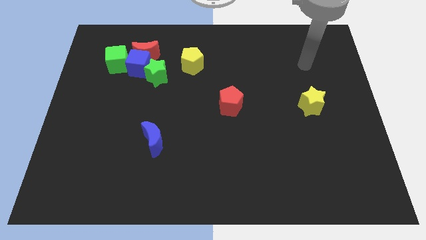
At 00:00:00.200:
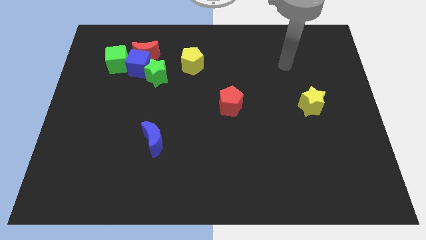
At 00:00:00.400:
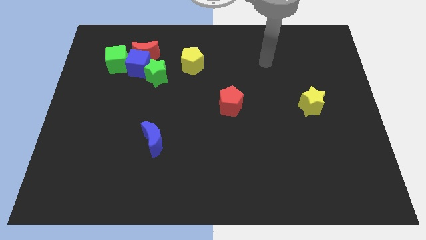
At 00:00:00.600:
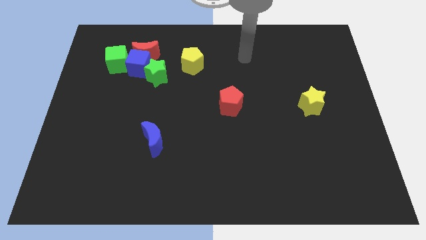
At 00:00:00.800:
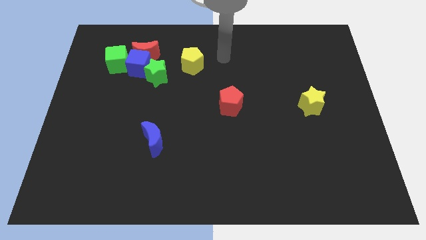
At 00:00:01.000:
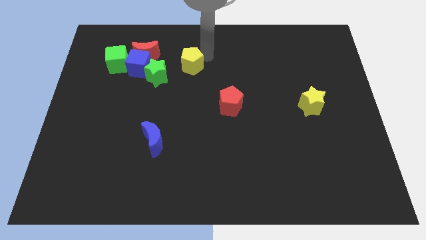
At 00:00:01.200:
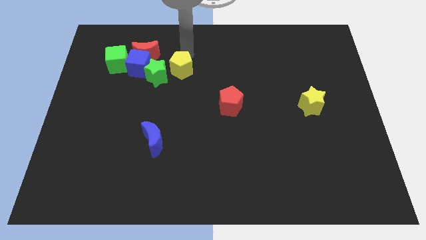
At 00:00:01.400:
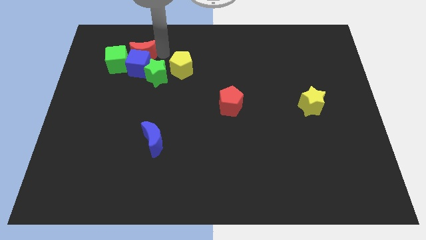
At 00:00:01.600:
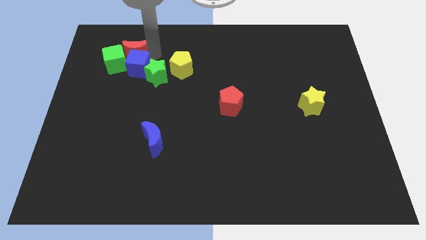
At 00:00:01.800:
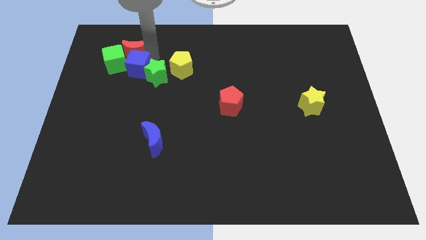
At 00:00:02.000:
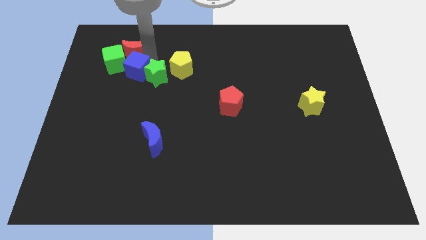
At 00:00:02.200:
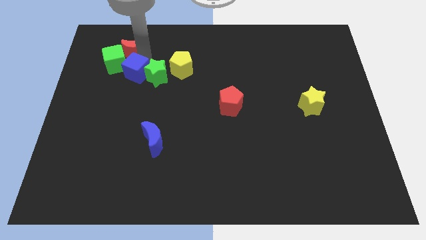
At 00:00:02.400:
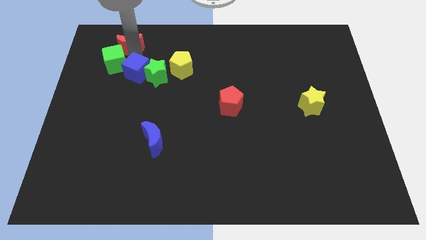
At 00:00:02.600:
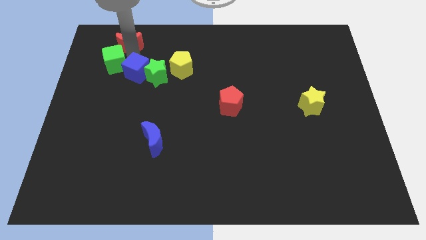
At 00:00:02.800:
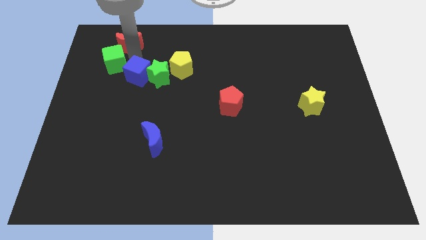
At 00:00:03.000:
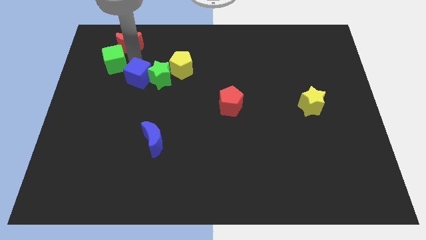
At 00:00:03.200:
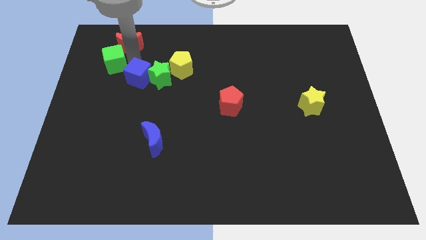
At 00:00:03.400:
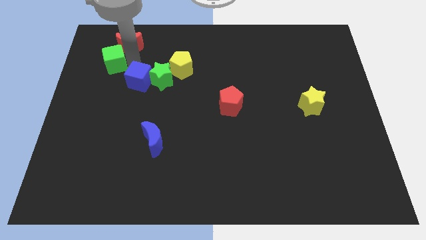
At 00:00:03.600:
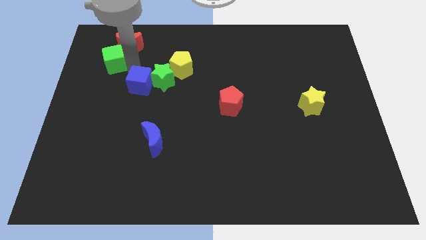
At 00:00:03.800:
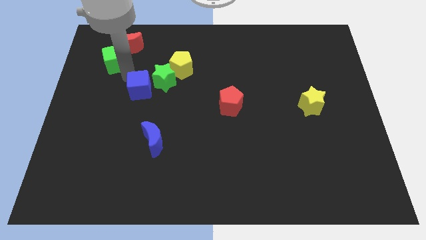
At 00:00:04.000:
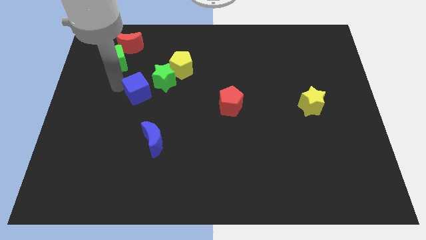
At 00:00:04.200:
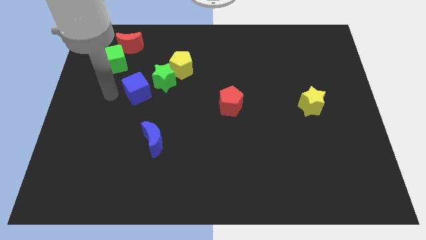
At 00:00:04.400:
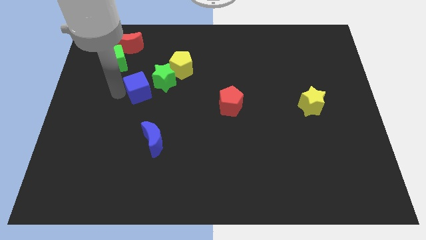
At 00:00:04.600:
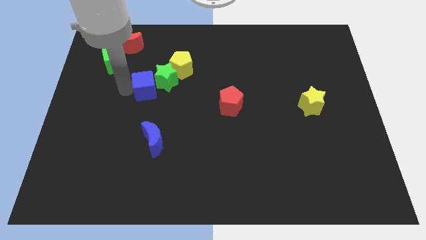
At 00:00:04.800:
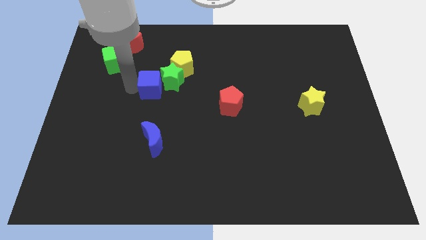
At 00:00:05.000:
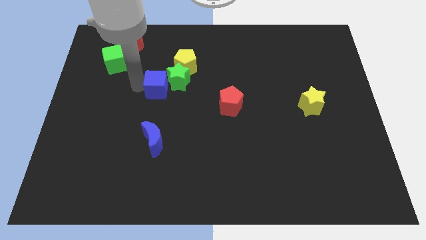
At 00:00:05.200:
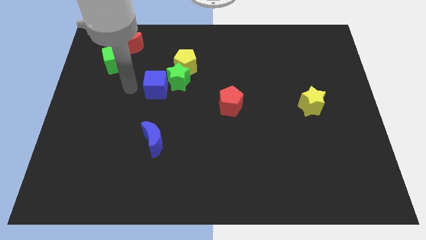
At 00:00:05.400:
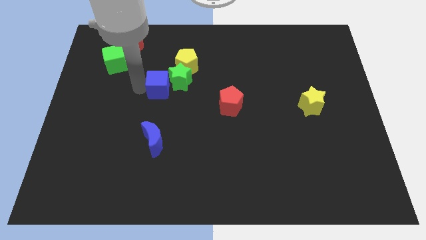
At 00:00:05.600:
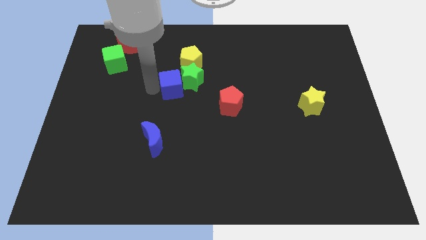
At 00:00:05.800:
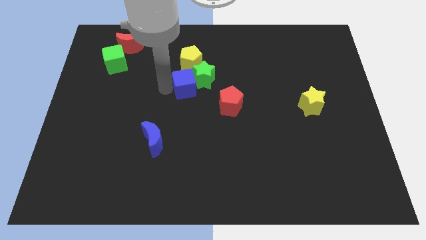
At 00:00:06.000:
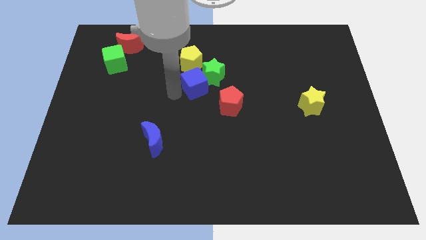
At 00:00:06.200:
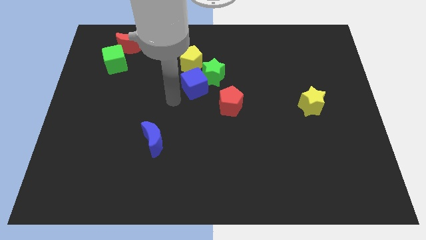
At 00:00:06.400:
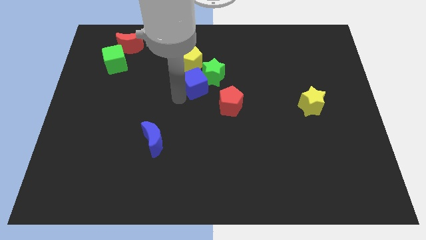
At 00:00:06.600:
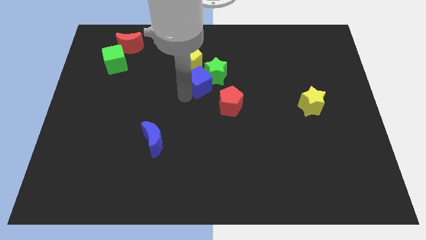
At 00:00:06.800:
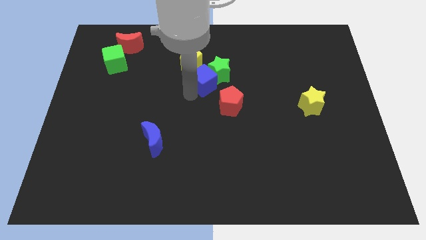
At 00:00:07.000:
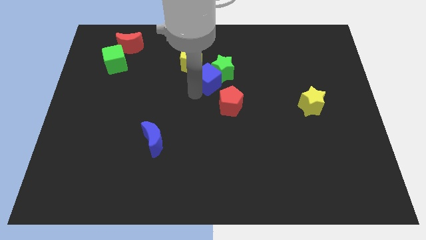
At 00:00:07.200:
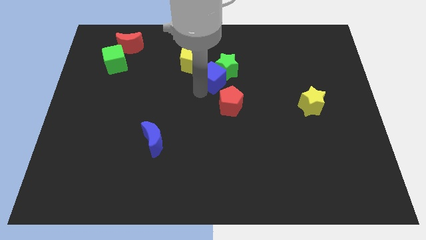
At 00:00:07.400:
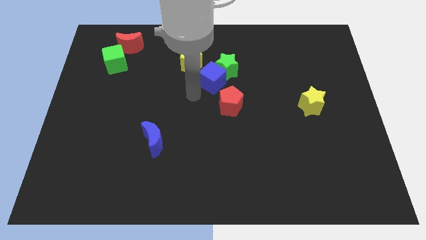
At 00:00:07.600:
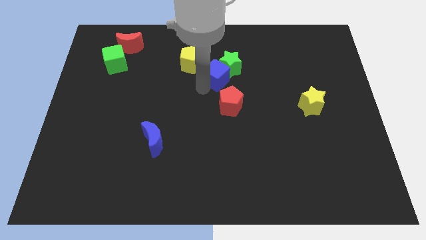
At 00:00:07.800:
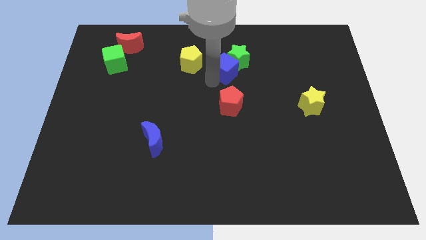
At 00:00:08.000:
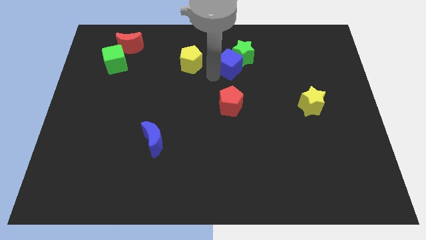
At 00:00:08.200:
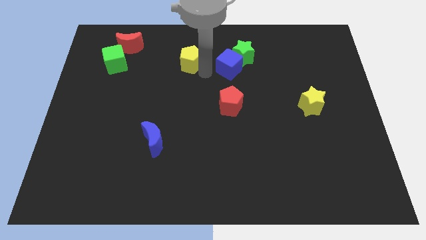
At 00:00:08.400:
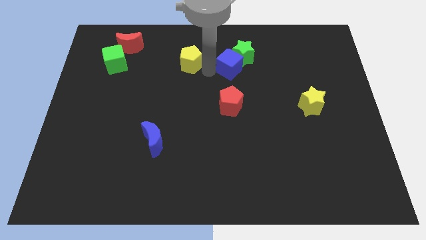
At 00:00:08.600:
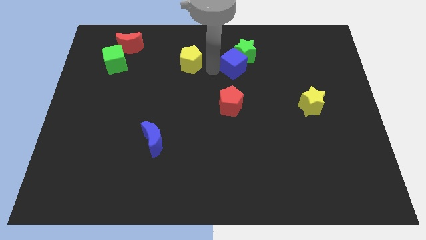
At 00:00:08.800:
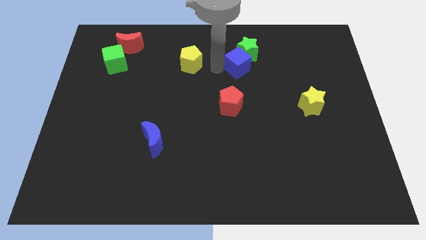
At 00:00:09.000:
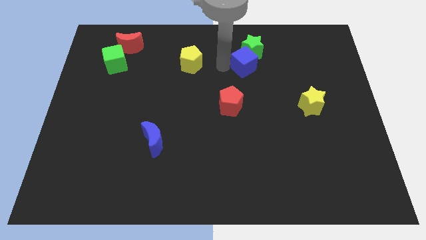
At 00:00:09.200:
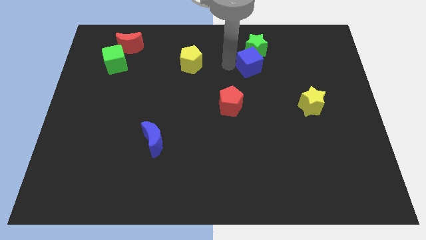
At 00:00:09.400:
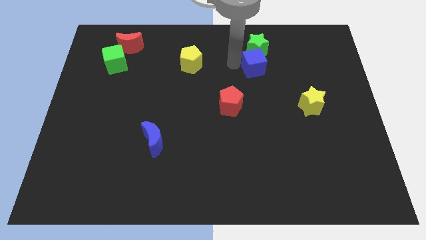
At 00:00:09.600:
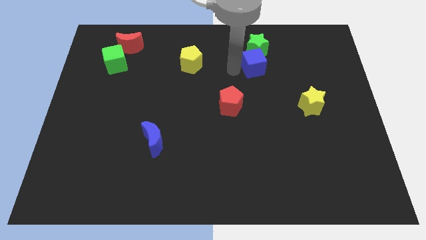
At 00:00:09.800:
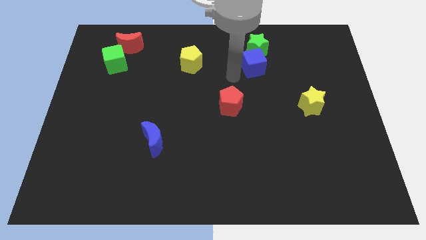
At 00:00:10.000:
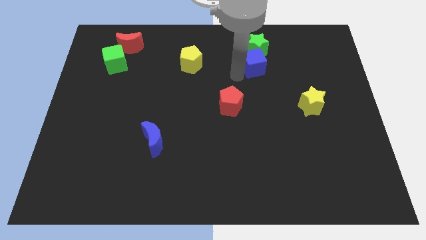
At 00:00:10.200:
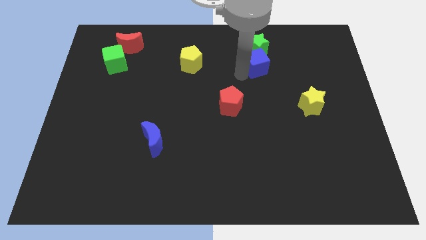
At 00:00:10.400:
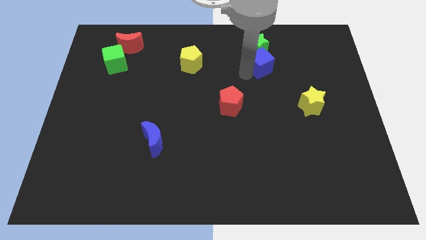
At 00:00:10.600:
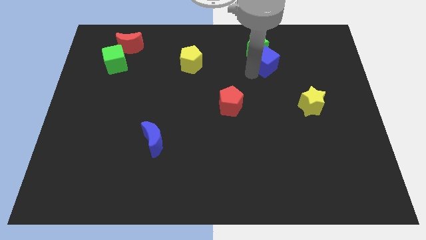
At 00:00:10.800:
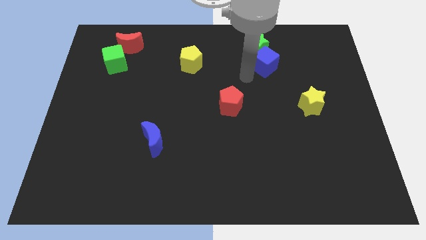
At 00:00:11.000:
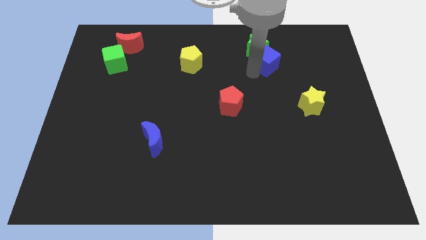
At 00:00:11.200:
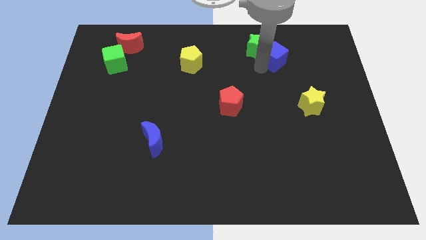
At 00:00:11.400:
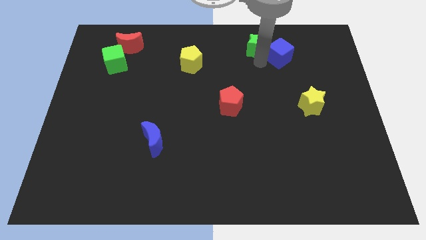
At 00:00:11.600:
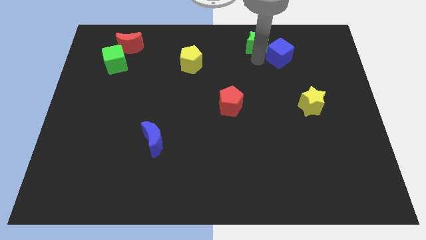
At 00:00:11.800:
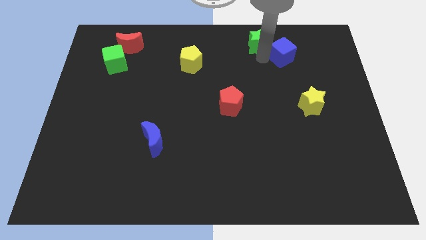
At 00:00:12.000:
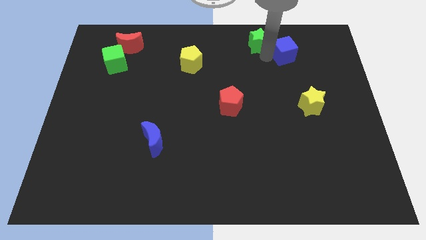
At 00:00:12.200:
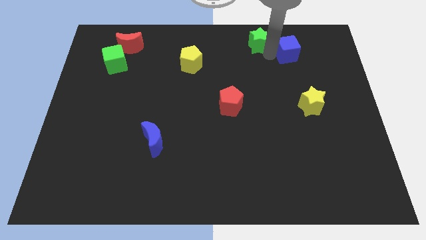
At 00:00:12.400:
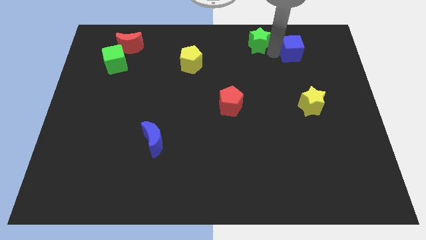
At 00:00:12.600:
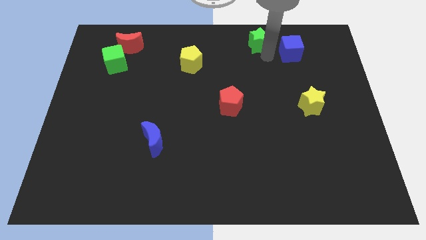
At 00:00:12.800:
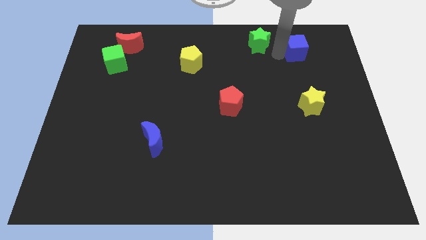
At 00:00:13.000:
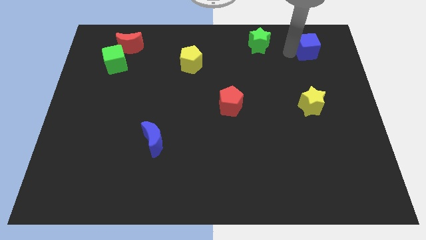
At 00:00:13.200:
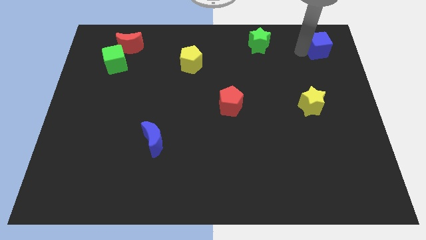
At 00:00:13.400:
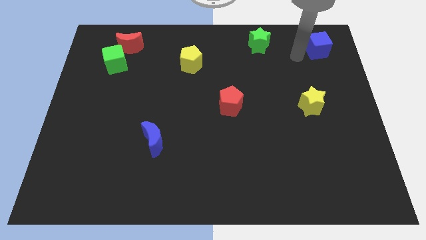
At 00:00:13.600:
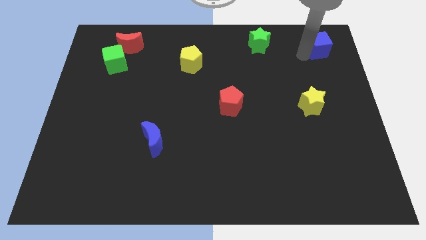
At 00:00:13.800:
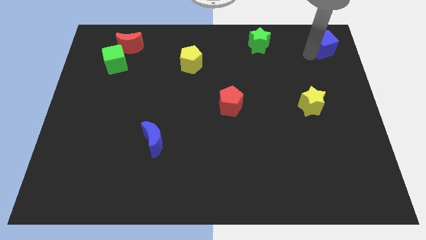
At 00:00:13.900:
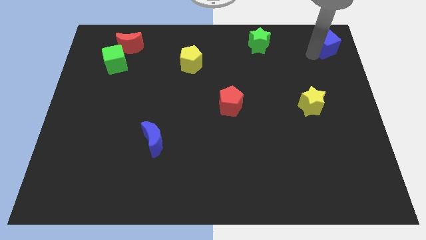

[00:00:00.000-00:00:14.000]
put the blue cube to the top right corner

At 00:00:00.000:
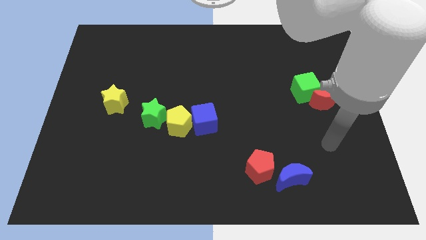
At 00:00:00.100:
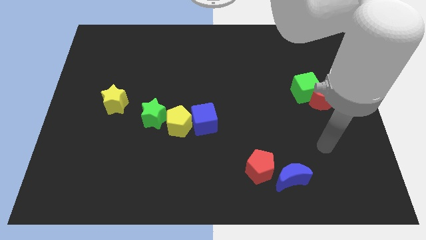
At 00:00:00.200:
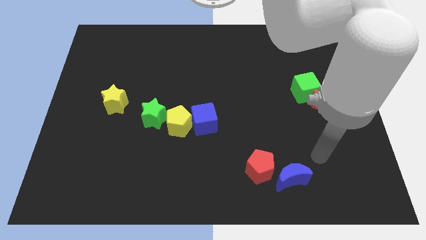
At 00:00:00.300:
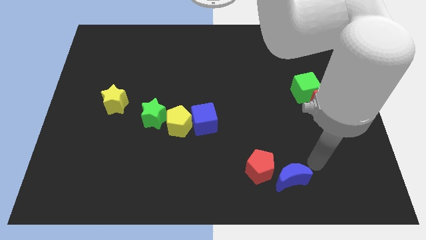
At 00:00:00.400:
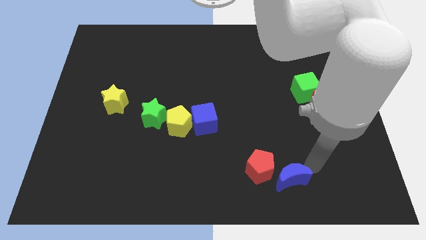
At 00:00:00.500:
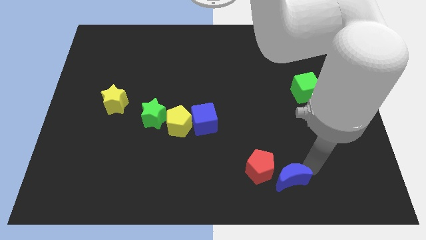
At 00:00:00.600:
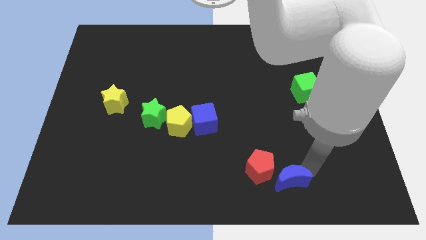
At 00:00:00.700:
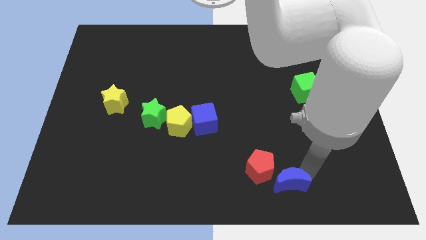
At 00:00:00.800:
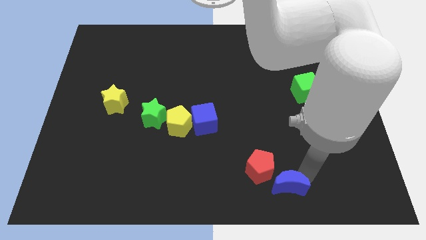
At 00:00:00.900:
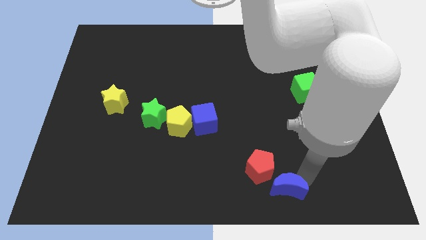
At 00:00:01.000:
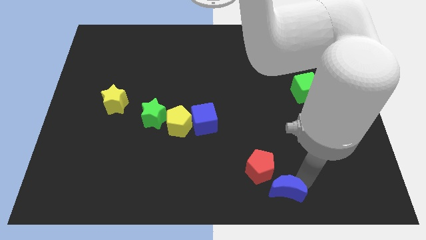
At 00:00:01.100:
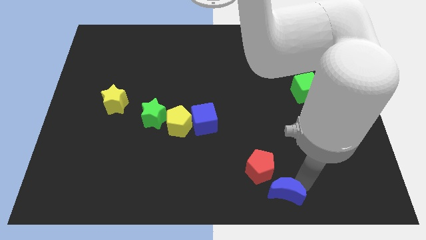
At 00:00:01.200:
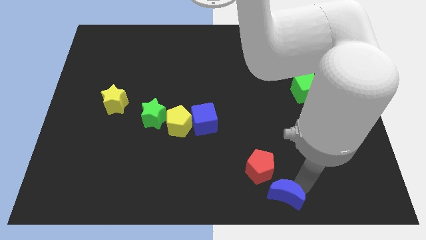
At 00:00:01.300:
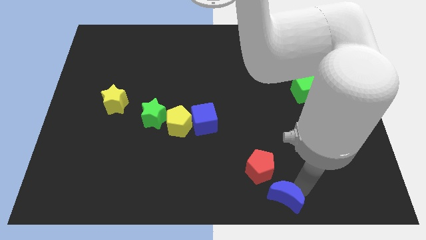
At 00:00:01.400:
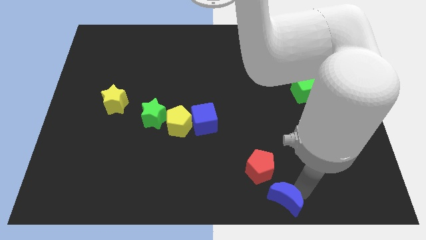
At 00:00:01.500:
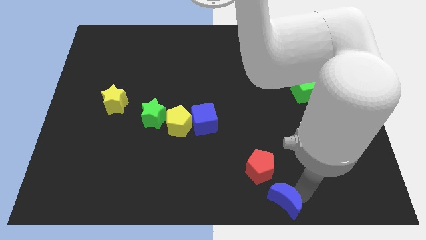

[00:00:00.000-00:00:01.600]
move the blue moon to the bottom side
